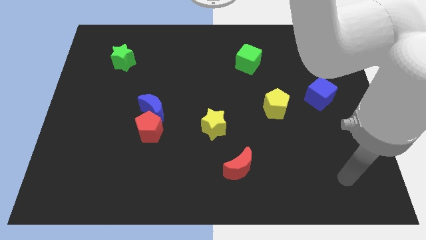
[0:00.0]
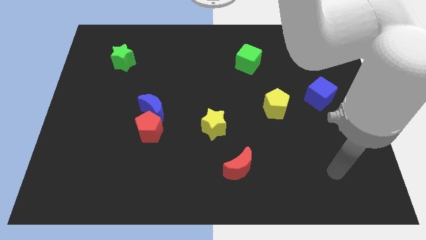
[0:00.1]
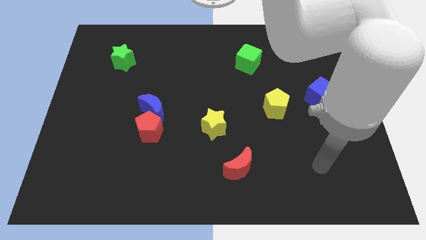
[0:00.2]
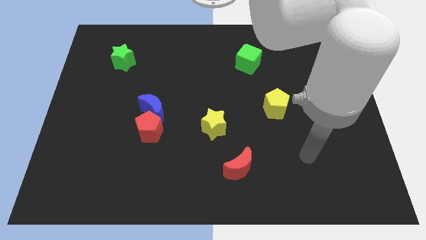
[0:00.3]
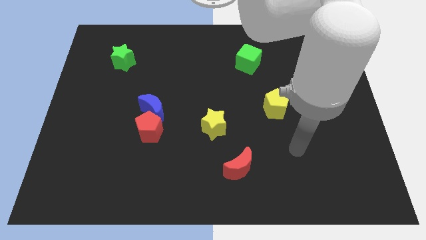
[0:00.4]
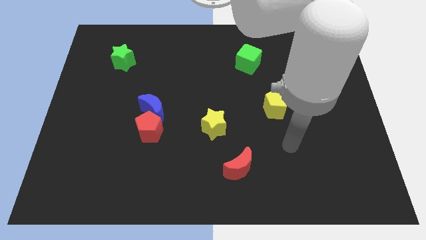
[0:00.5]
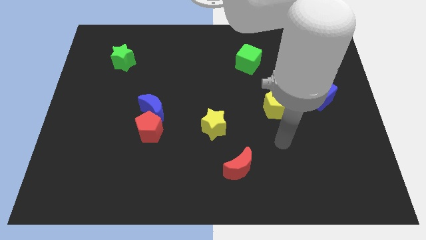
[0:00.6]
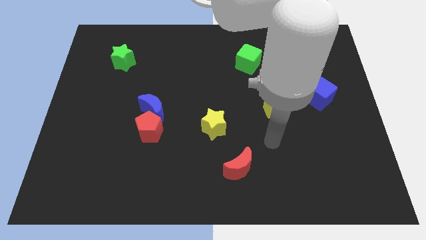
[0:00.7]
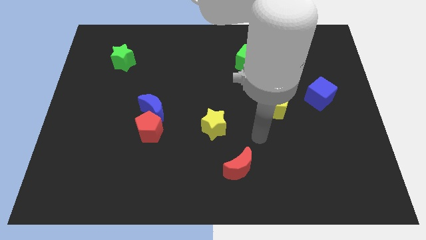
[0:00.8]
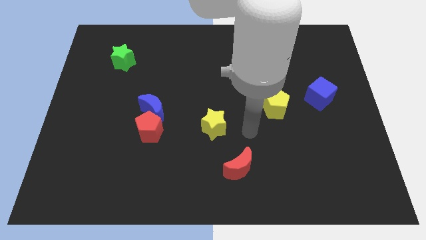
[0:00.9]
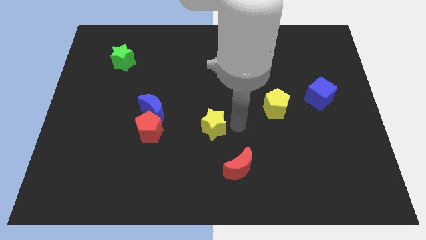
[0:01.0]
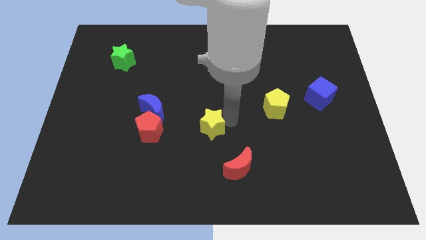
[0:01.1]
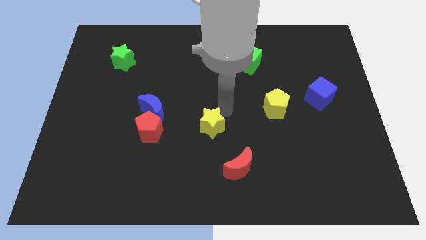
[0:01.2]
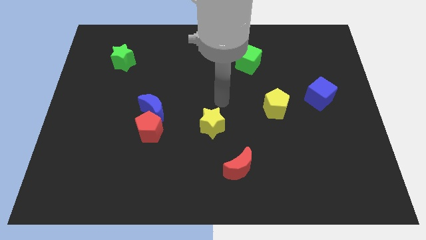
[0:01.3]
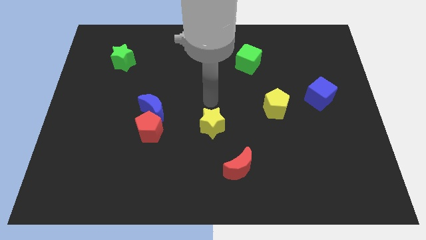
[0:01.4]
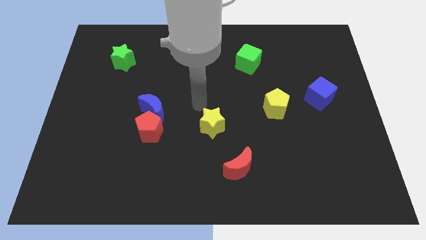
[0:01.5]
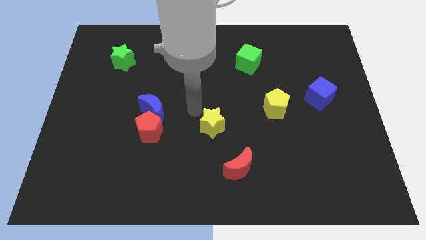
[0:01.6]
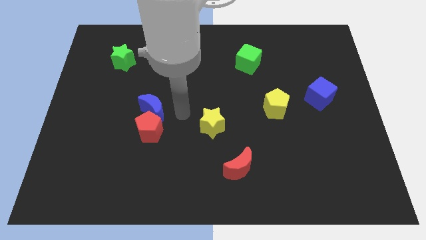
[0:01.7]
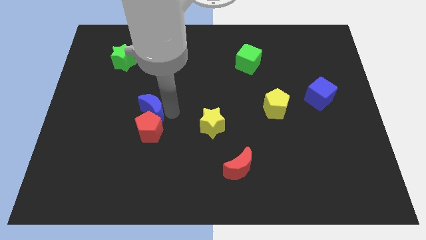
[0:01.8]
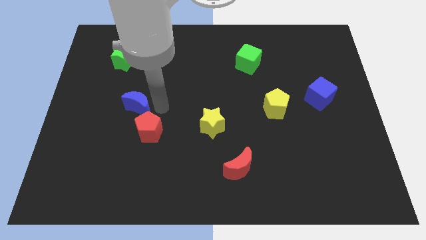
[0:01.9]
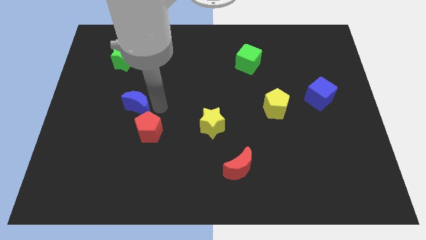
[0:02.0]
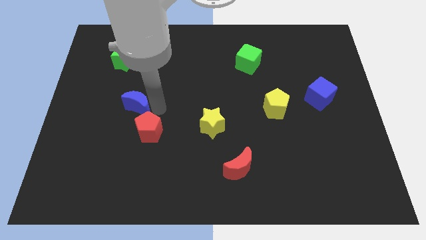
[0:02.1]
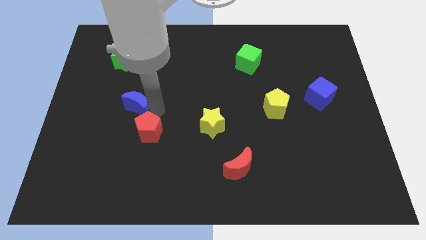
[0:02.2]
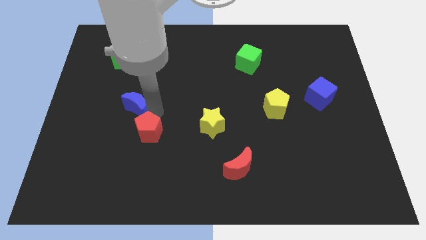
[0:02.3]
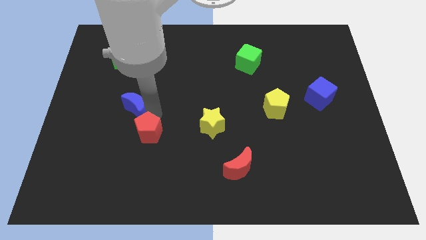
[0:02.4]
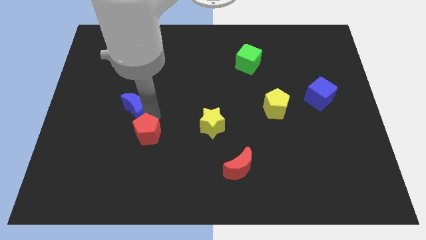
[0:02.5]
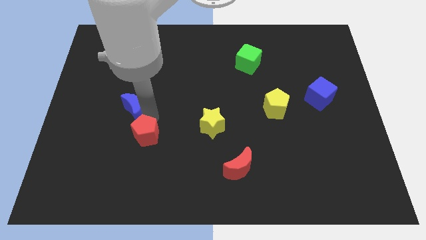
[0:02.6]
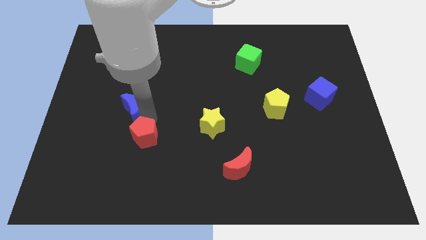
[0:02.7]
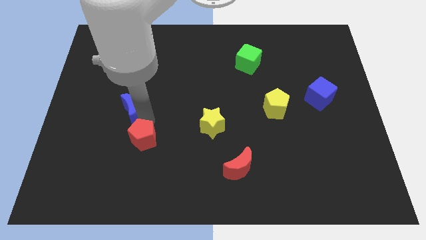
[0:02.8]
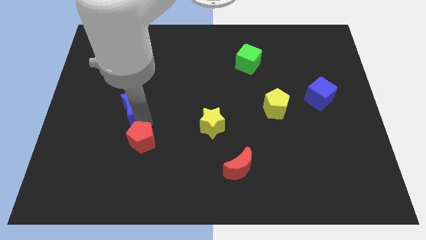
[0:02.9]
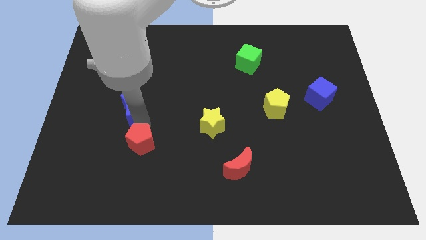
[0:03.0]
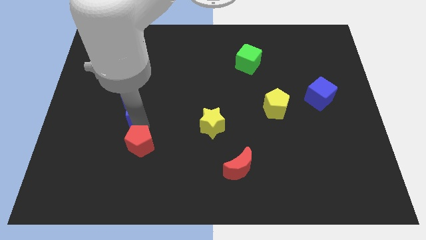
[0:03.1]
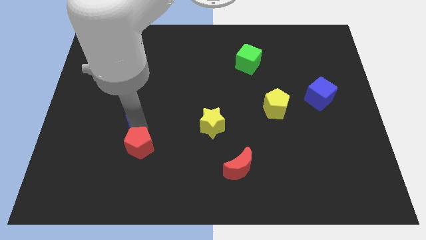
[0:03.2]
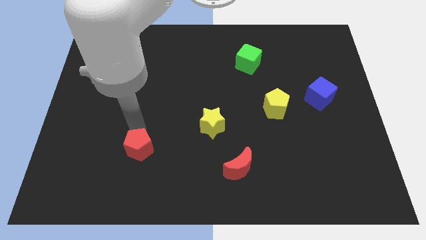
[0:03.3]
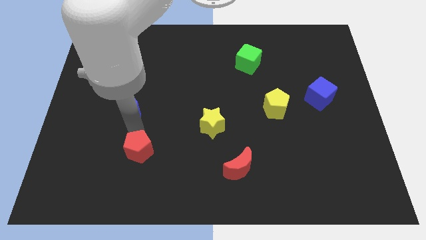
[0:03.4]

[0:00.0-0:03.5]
move the red pentagon away from the blue moon

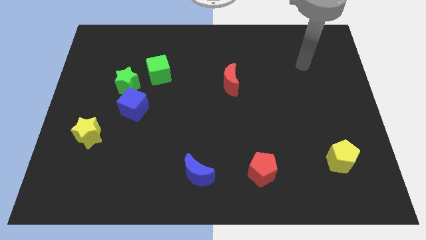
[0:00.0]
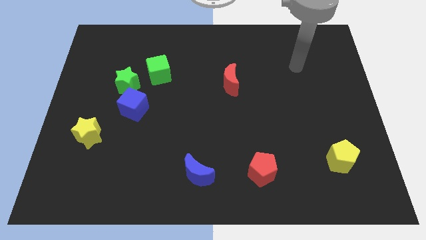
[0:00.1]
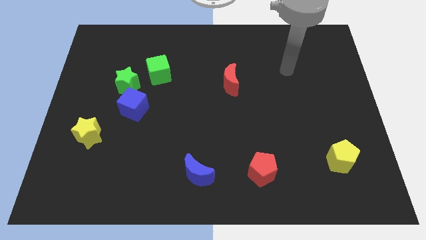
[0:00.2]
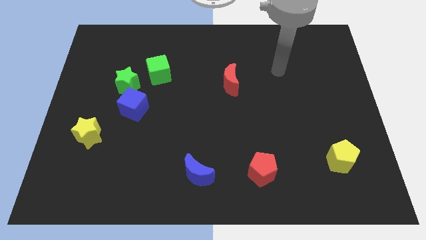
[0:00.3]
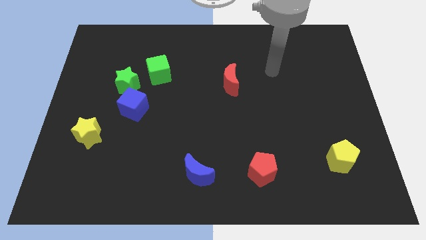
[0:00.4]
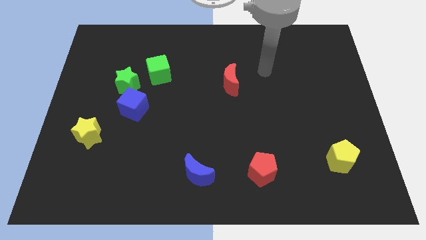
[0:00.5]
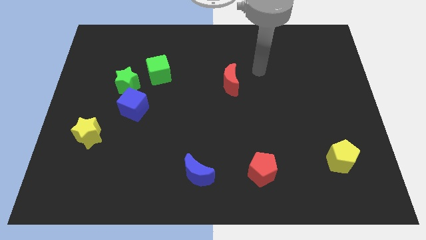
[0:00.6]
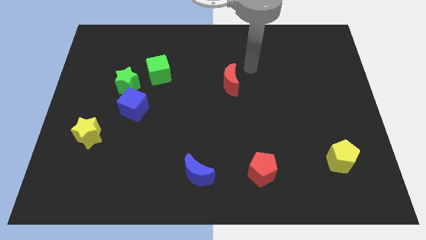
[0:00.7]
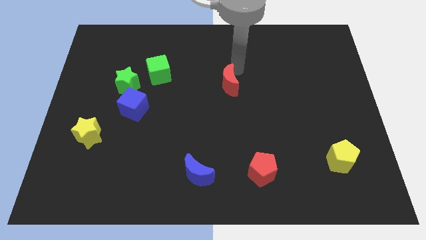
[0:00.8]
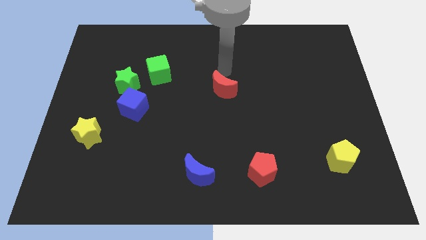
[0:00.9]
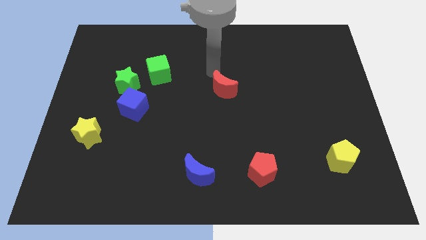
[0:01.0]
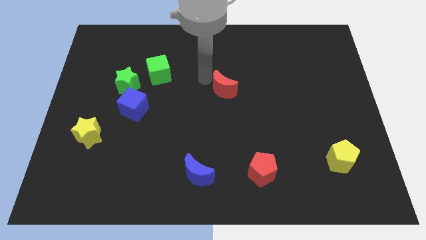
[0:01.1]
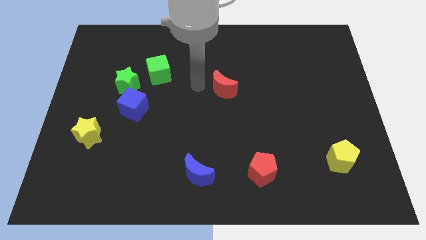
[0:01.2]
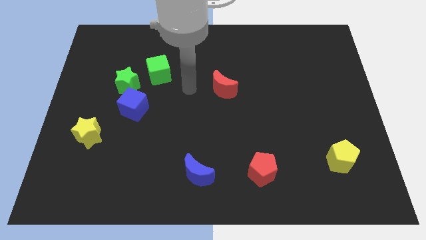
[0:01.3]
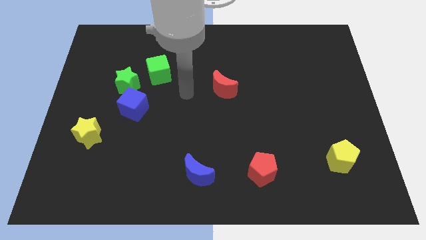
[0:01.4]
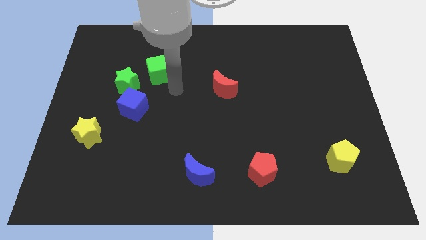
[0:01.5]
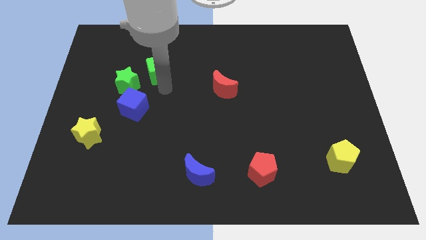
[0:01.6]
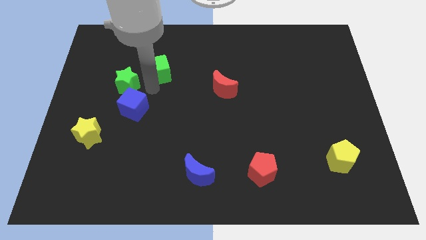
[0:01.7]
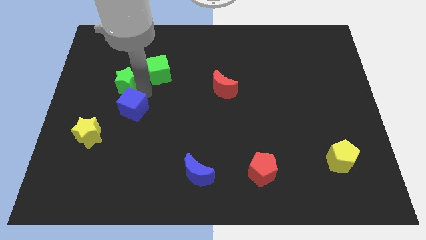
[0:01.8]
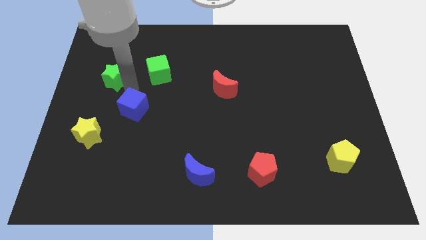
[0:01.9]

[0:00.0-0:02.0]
separate the blue cube from the green star

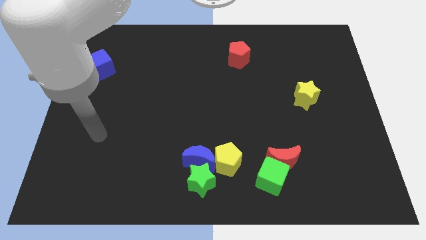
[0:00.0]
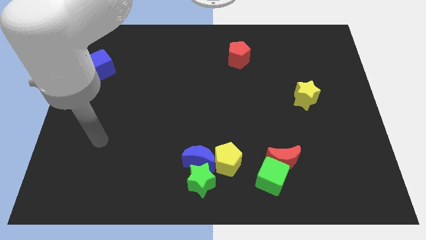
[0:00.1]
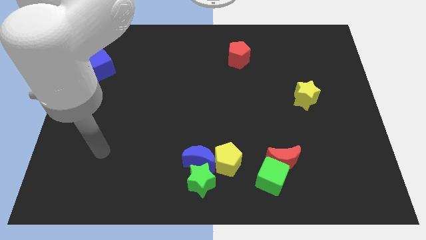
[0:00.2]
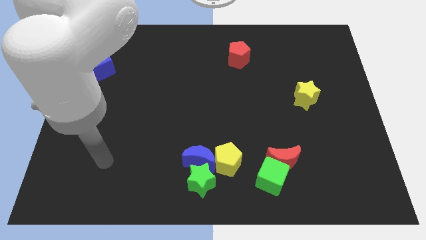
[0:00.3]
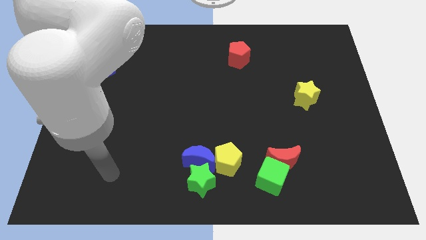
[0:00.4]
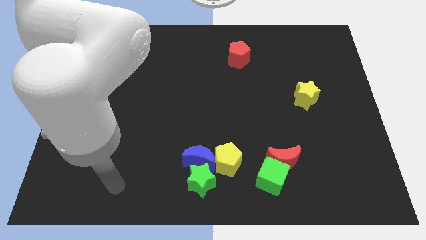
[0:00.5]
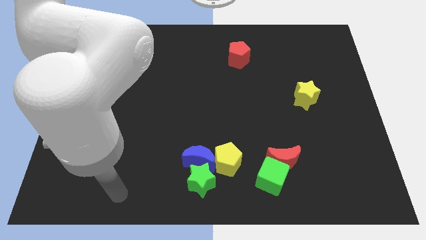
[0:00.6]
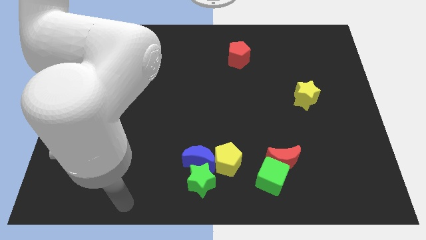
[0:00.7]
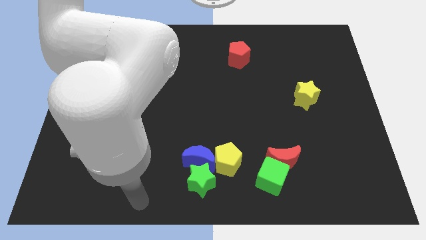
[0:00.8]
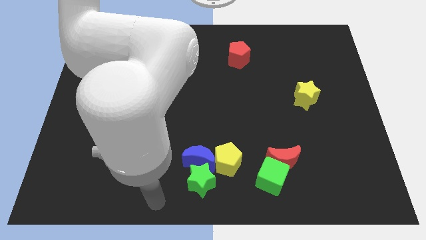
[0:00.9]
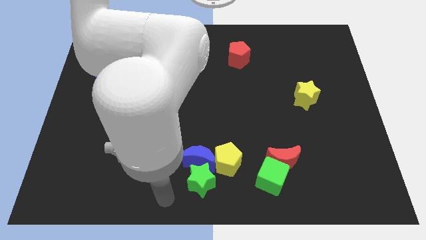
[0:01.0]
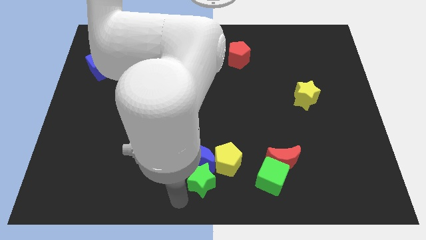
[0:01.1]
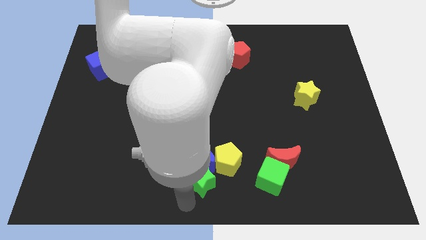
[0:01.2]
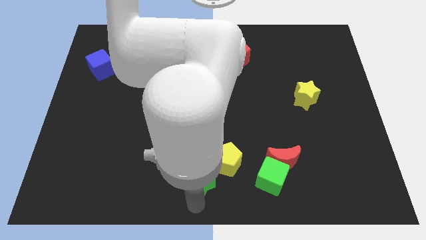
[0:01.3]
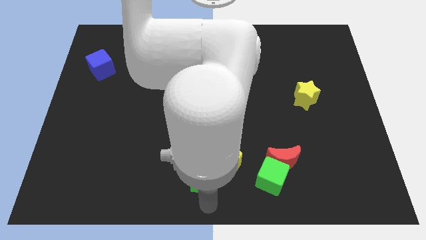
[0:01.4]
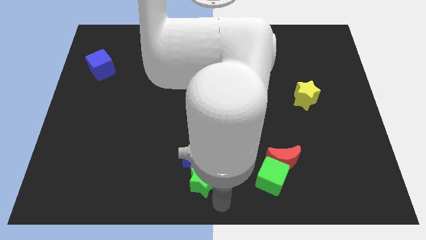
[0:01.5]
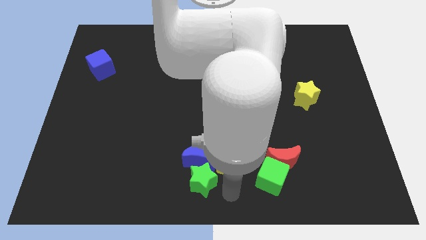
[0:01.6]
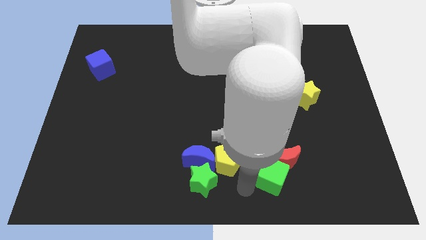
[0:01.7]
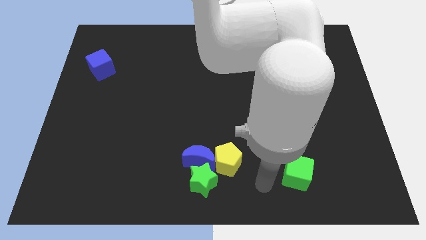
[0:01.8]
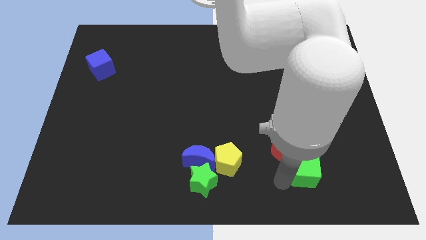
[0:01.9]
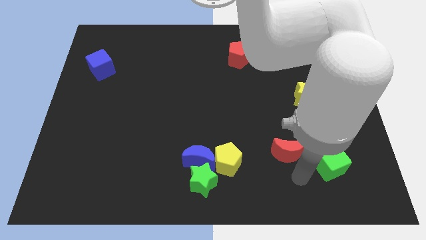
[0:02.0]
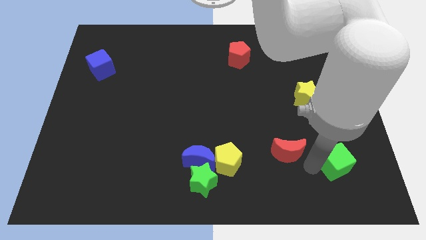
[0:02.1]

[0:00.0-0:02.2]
pull the red moon apart from the green cube

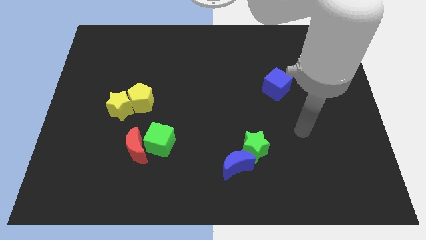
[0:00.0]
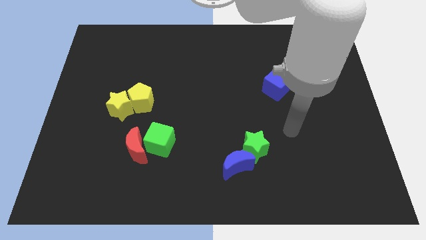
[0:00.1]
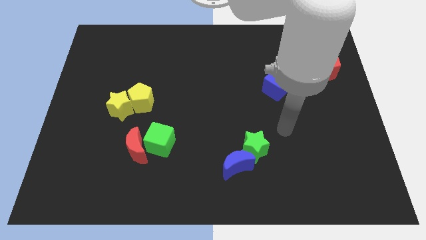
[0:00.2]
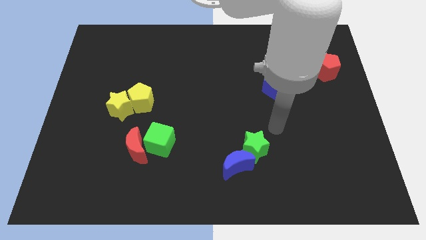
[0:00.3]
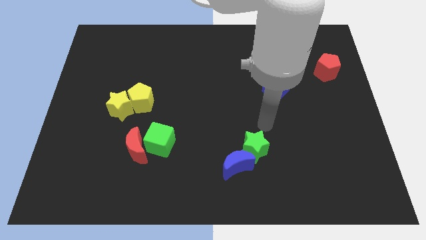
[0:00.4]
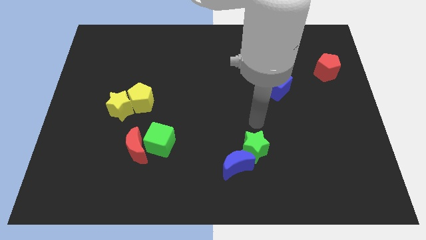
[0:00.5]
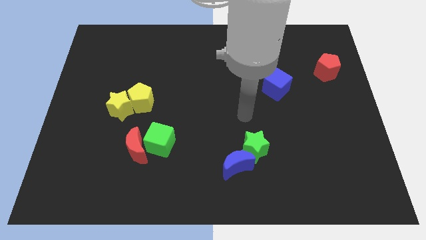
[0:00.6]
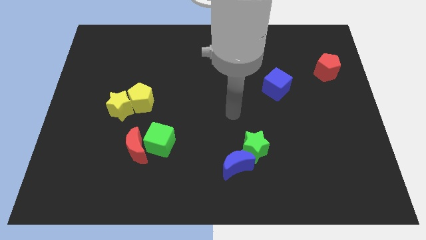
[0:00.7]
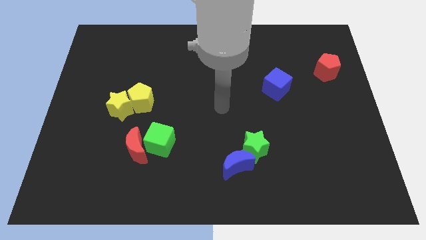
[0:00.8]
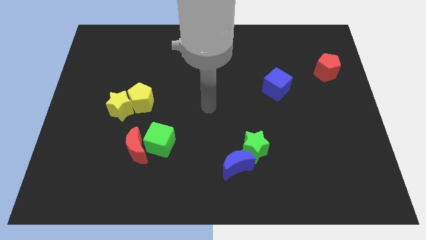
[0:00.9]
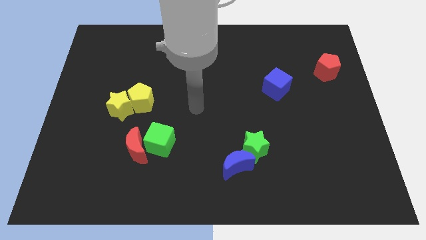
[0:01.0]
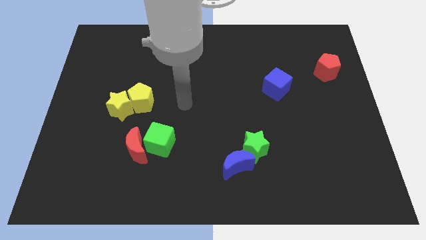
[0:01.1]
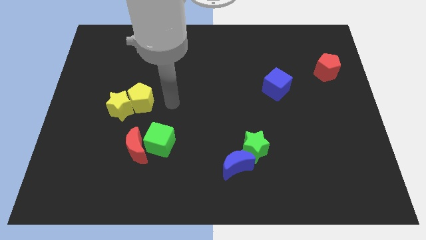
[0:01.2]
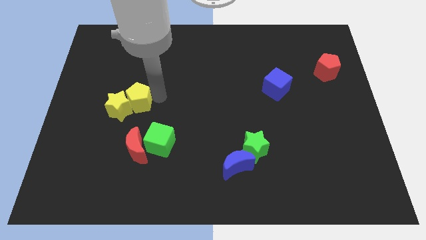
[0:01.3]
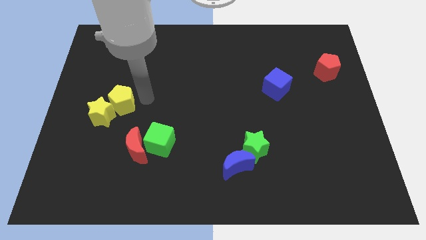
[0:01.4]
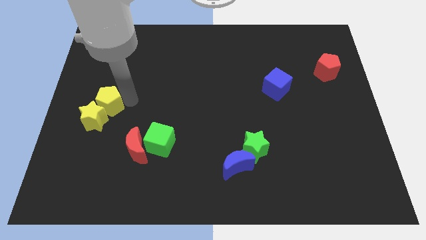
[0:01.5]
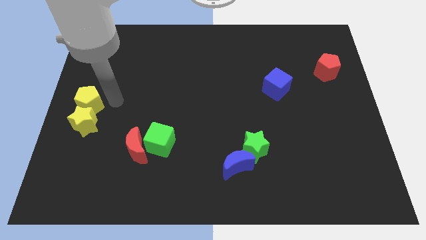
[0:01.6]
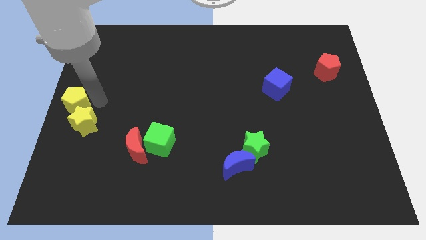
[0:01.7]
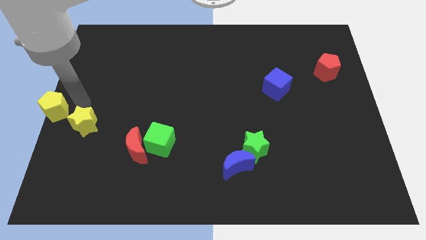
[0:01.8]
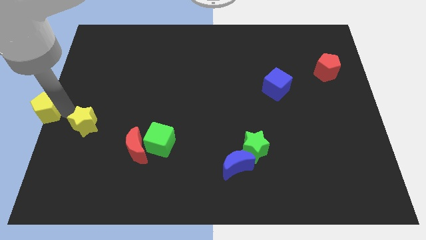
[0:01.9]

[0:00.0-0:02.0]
separate the yellow star from the yellow pentagon
